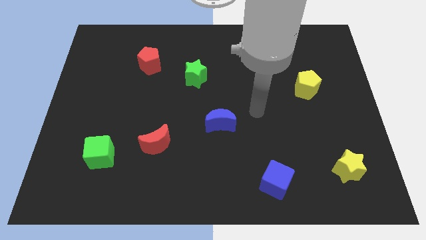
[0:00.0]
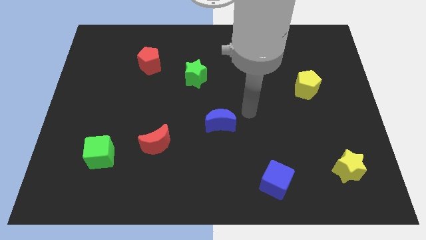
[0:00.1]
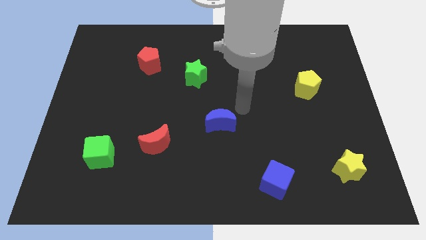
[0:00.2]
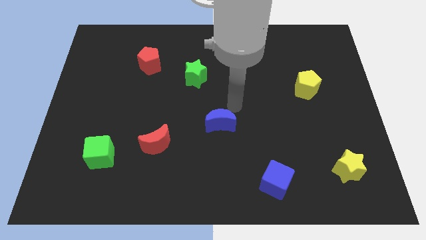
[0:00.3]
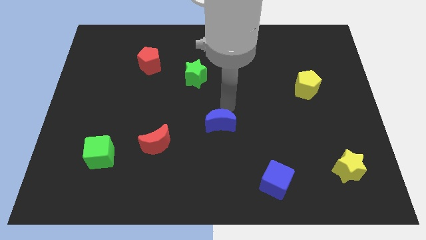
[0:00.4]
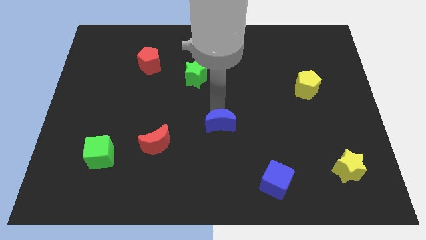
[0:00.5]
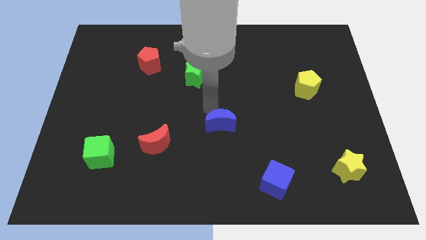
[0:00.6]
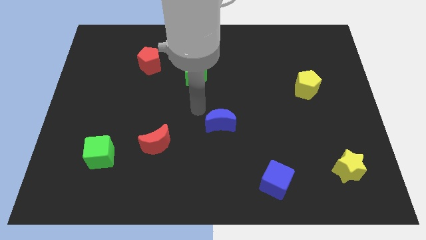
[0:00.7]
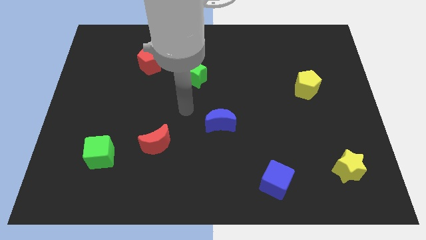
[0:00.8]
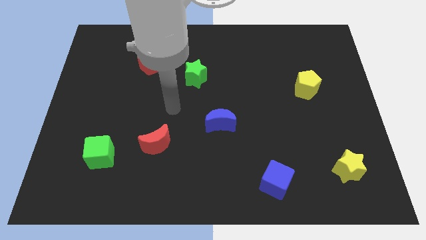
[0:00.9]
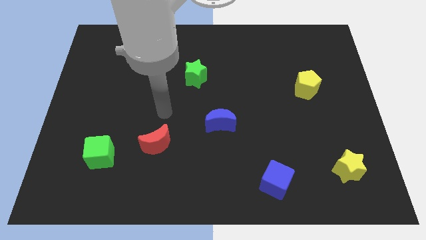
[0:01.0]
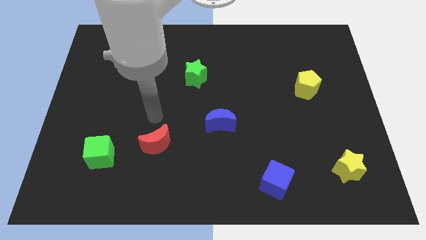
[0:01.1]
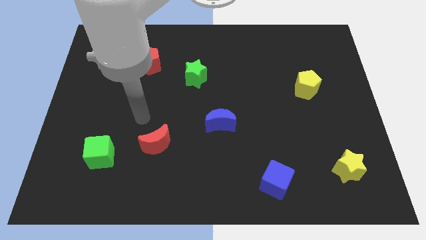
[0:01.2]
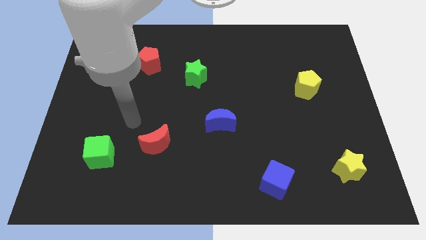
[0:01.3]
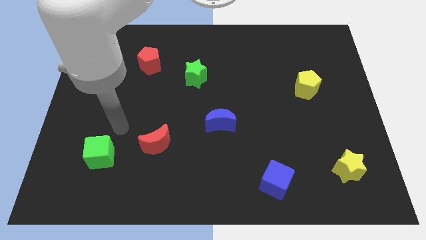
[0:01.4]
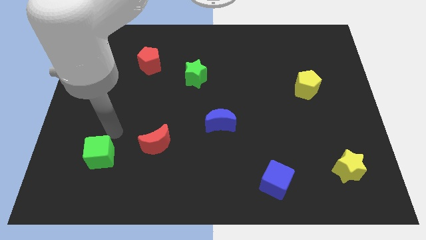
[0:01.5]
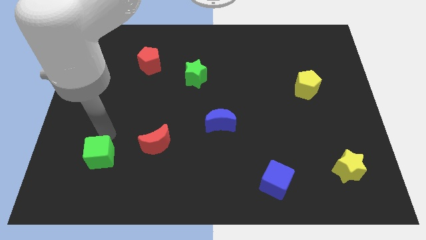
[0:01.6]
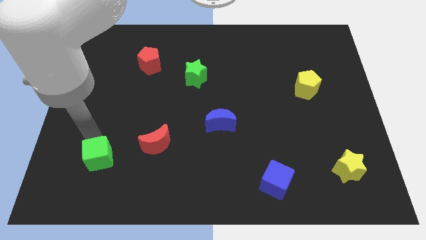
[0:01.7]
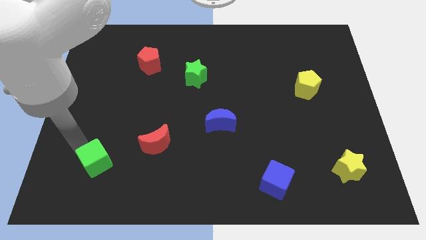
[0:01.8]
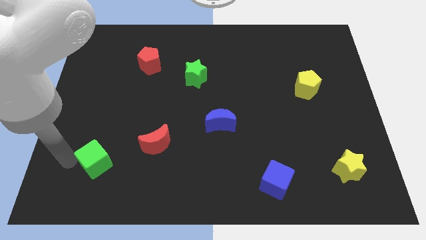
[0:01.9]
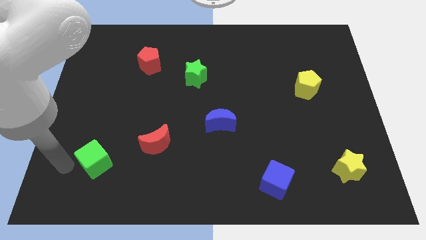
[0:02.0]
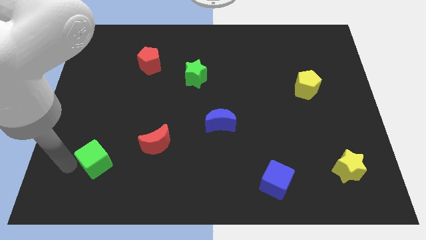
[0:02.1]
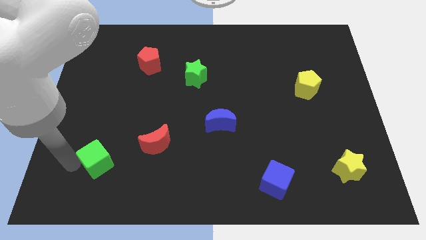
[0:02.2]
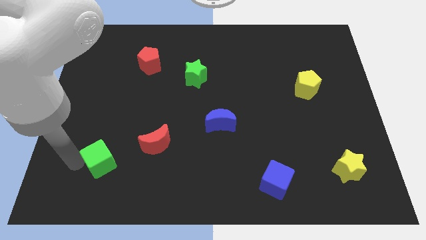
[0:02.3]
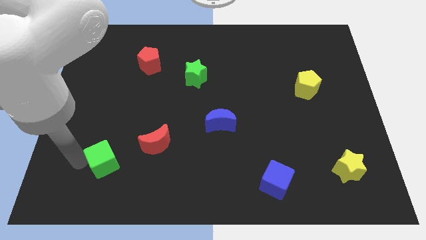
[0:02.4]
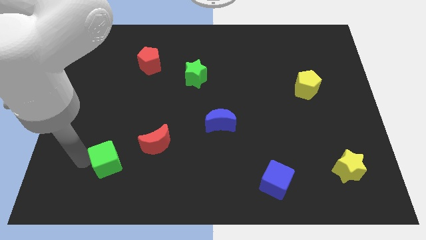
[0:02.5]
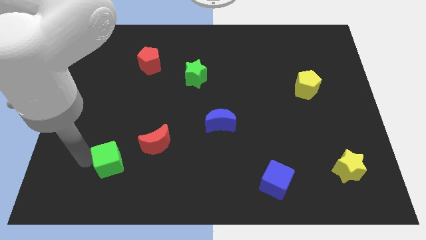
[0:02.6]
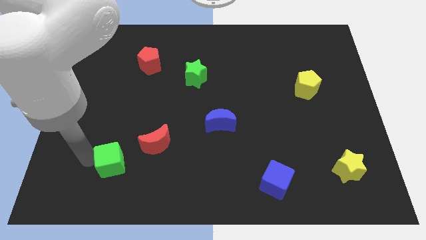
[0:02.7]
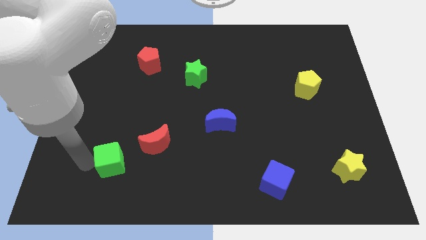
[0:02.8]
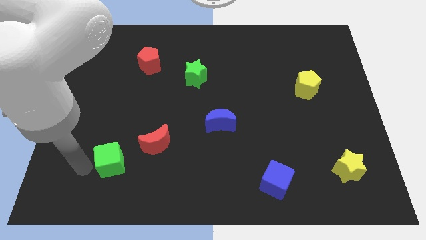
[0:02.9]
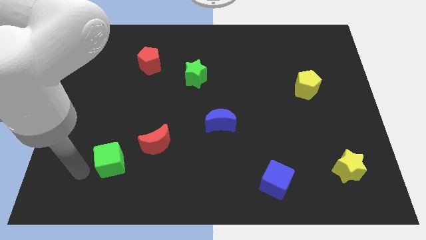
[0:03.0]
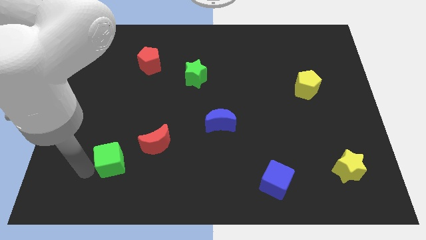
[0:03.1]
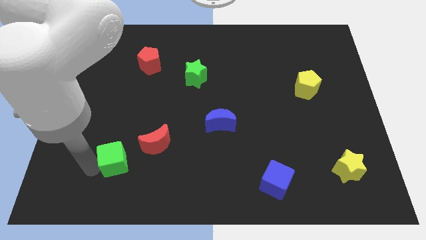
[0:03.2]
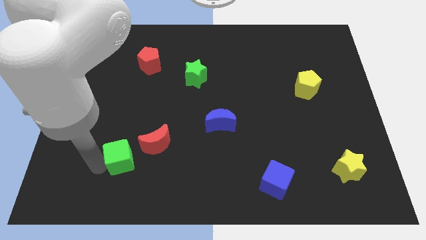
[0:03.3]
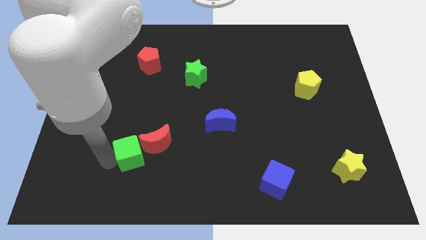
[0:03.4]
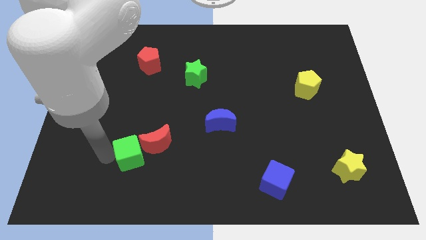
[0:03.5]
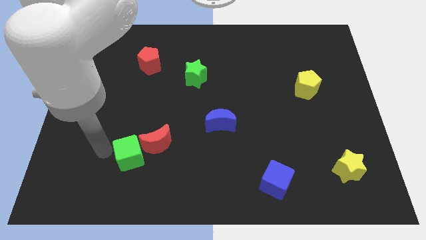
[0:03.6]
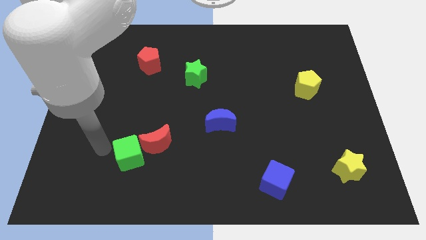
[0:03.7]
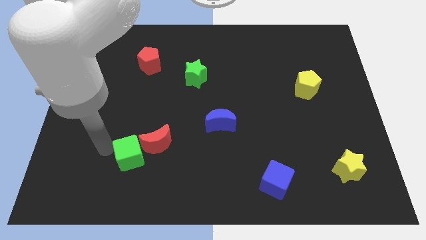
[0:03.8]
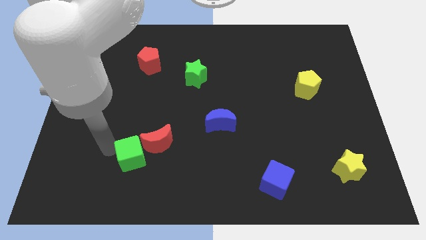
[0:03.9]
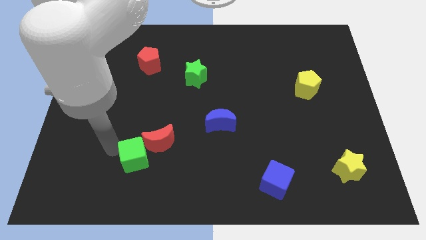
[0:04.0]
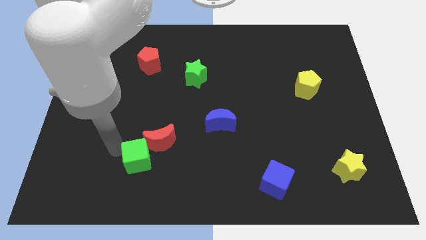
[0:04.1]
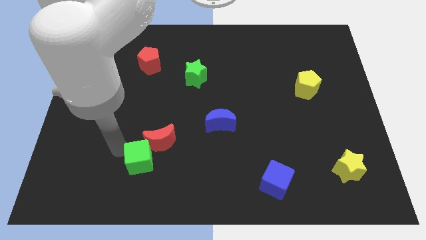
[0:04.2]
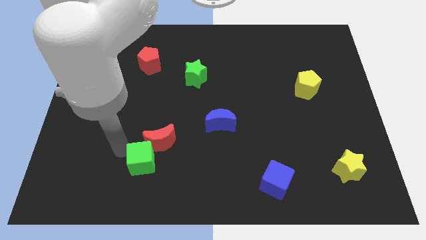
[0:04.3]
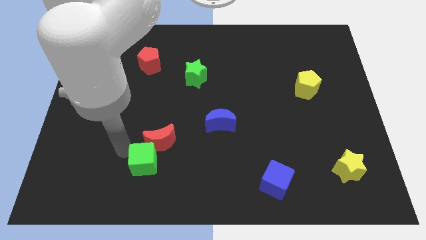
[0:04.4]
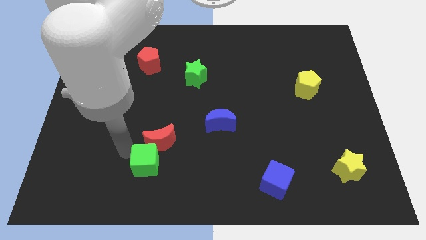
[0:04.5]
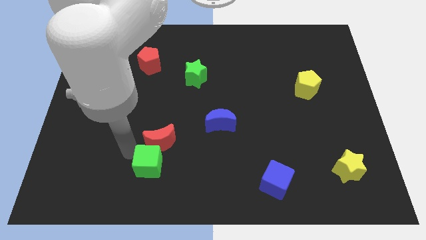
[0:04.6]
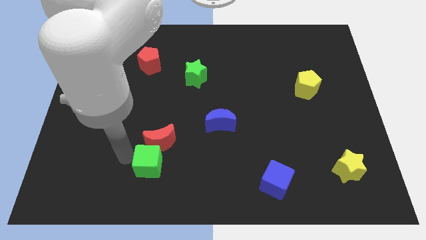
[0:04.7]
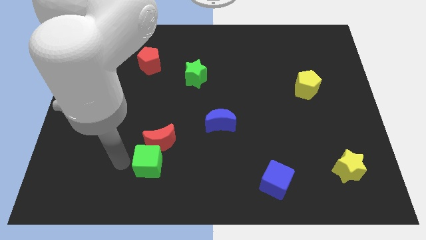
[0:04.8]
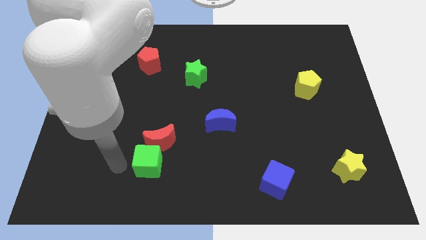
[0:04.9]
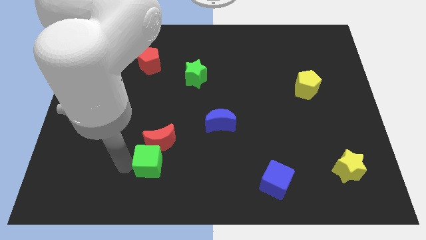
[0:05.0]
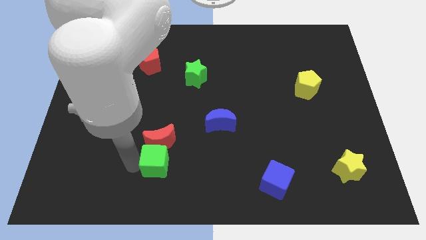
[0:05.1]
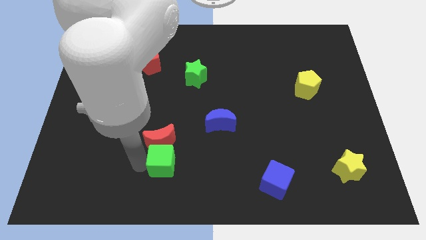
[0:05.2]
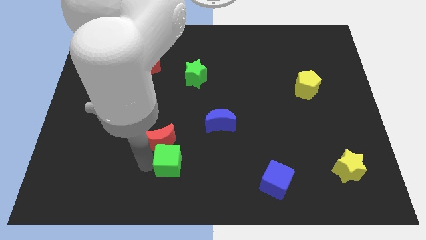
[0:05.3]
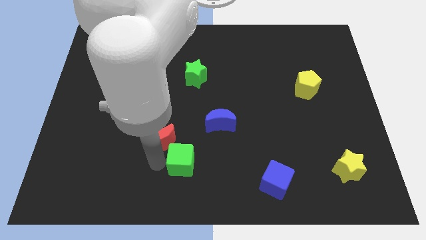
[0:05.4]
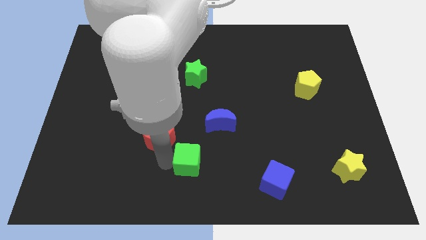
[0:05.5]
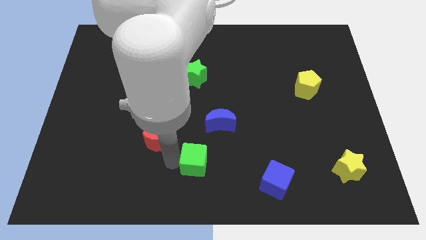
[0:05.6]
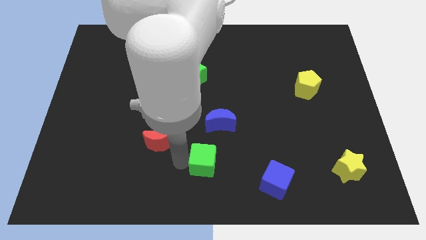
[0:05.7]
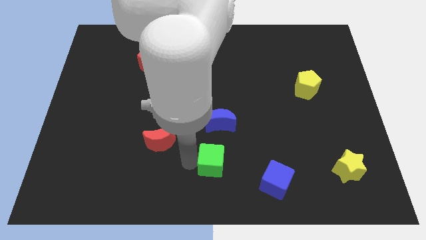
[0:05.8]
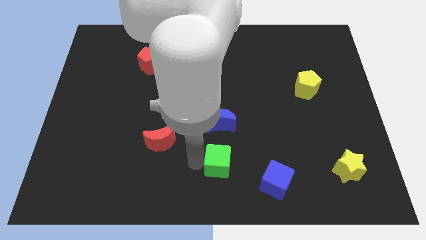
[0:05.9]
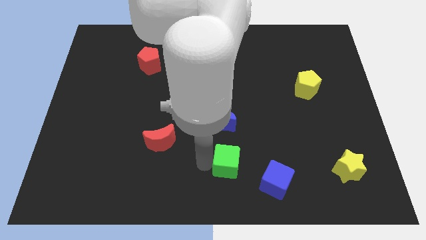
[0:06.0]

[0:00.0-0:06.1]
push the green cube to the top left of the blue cube
